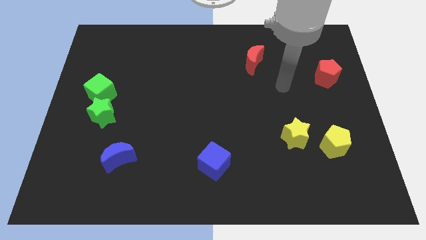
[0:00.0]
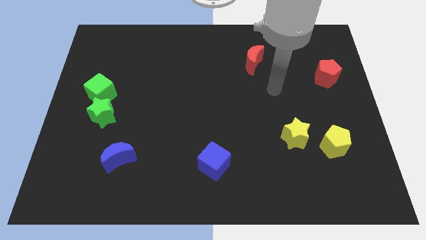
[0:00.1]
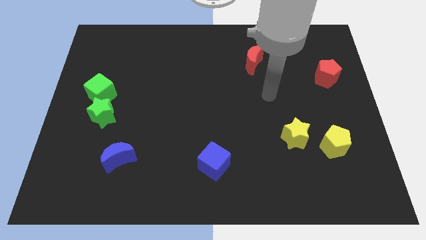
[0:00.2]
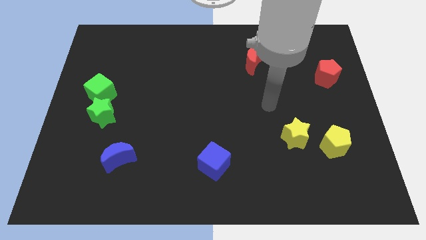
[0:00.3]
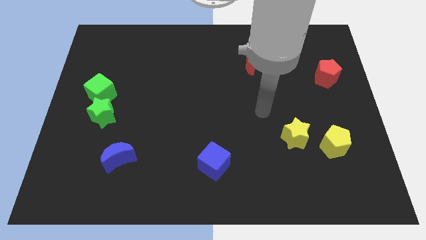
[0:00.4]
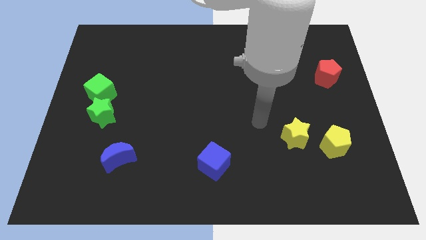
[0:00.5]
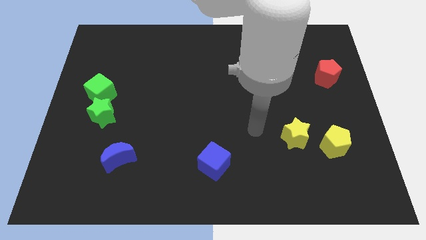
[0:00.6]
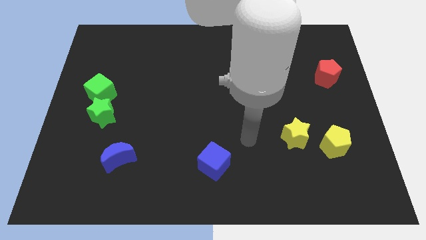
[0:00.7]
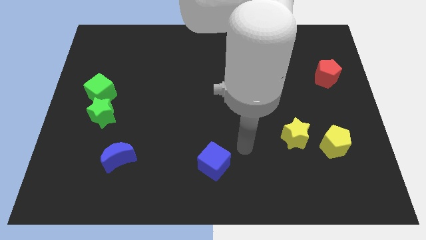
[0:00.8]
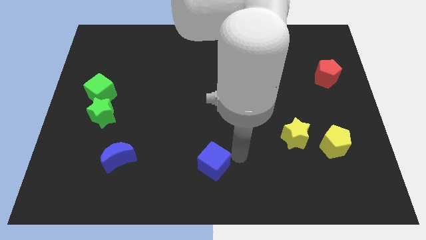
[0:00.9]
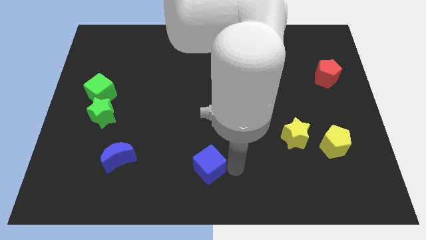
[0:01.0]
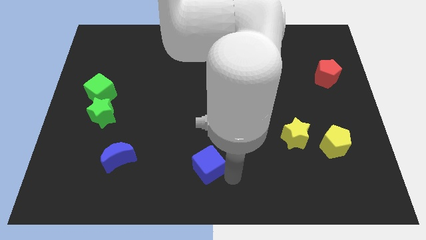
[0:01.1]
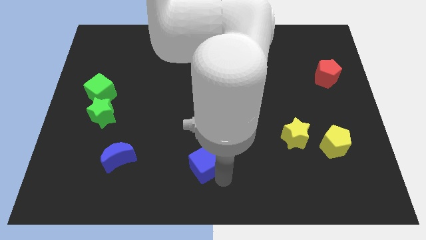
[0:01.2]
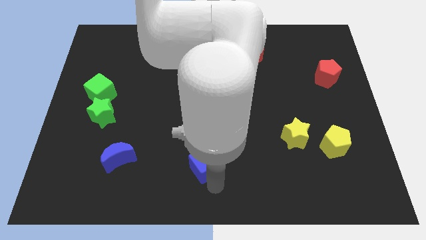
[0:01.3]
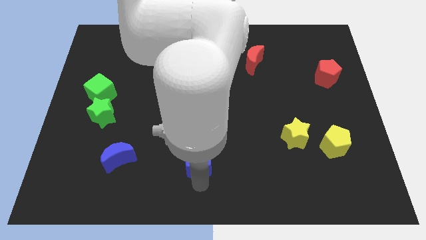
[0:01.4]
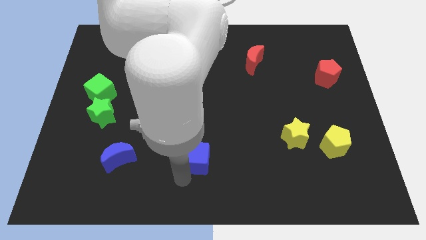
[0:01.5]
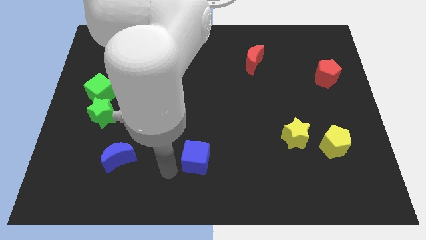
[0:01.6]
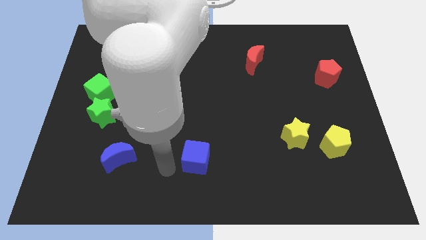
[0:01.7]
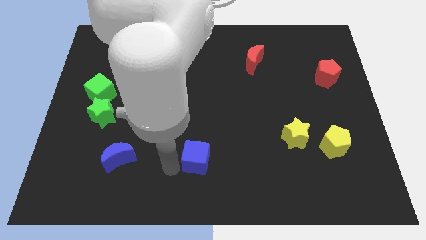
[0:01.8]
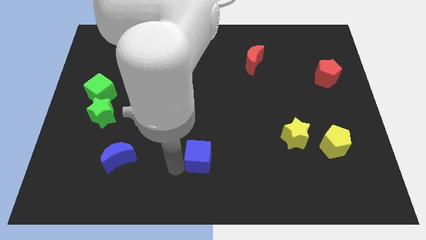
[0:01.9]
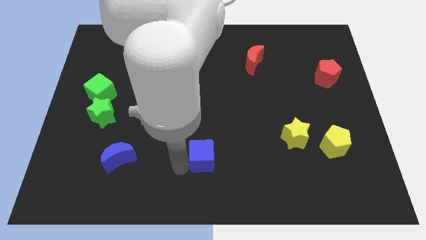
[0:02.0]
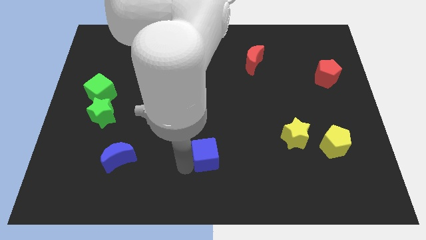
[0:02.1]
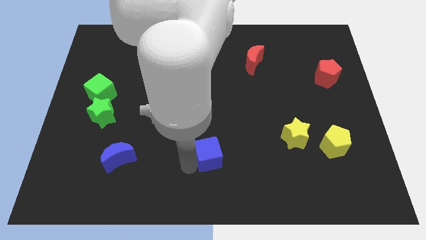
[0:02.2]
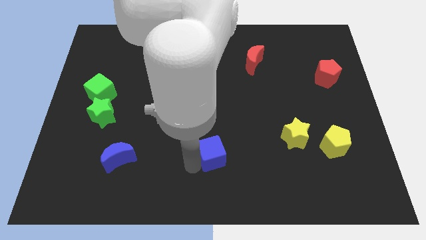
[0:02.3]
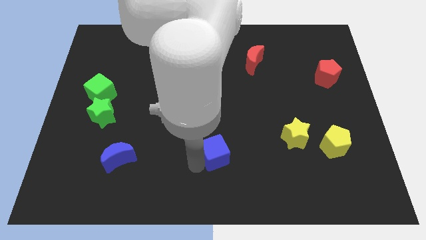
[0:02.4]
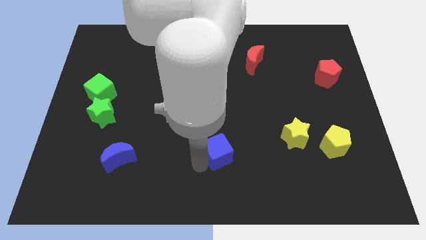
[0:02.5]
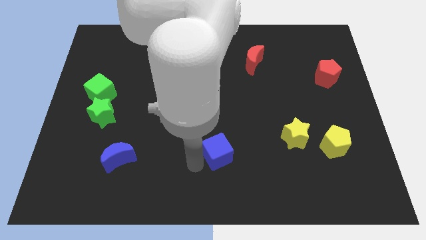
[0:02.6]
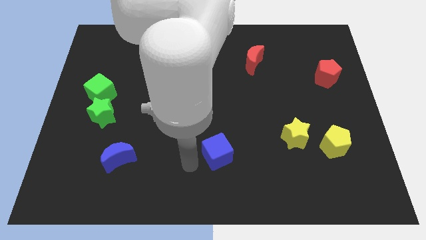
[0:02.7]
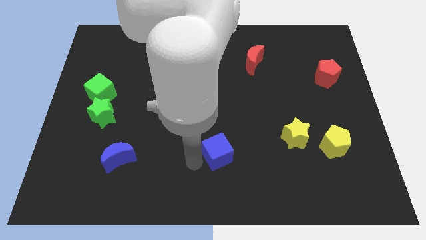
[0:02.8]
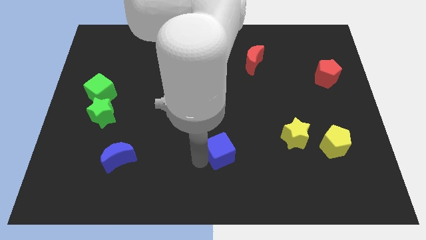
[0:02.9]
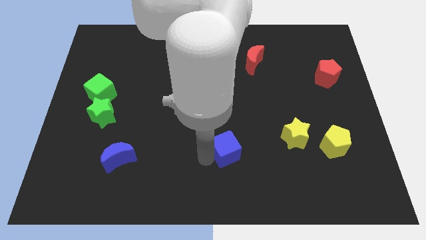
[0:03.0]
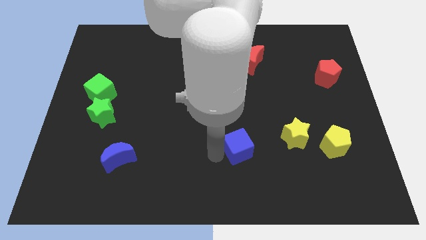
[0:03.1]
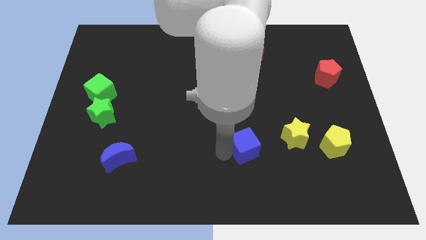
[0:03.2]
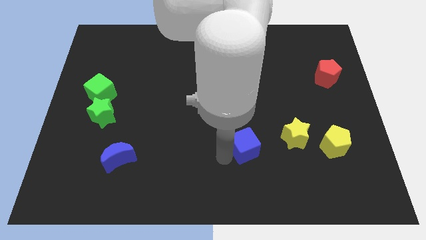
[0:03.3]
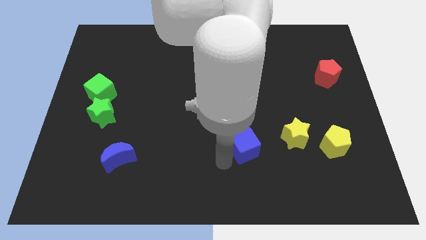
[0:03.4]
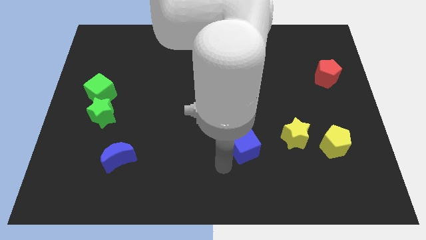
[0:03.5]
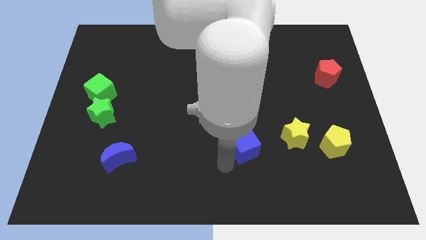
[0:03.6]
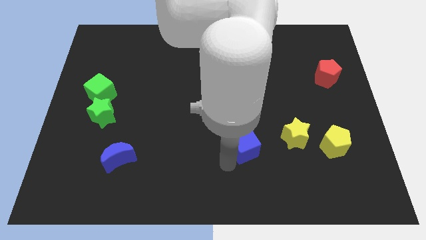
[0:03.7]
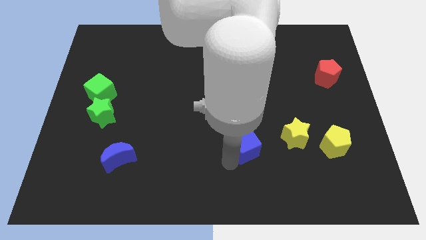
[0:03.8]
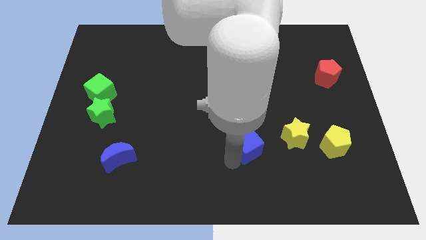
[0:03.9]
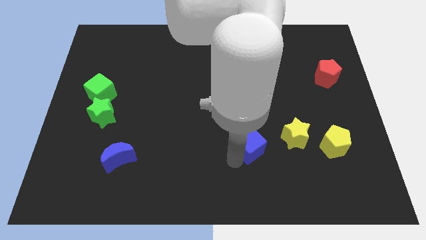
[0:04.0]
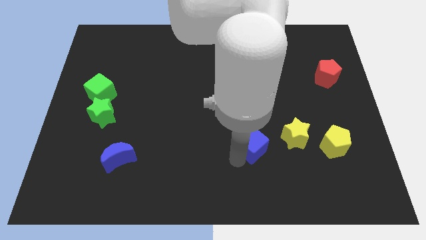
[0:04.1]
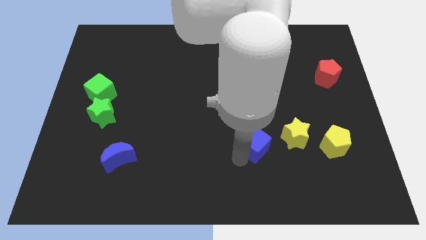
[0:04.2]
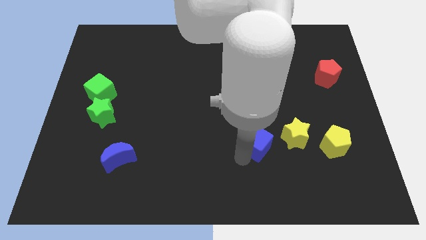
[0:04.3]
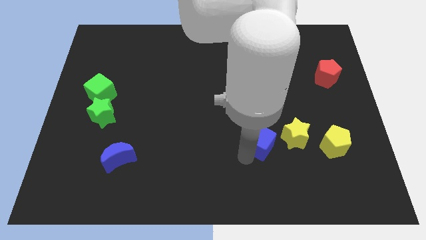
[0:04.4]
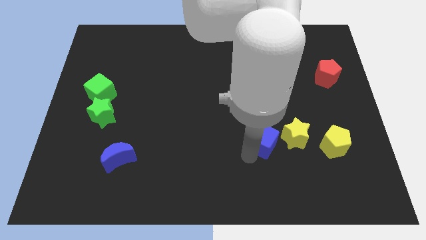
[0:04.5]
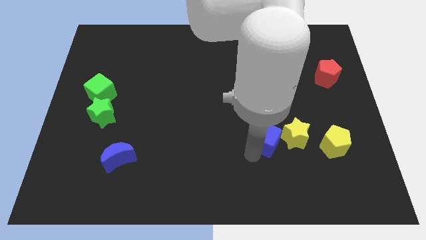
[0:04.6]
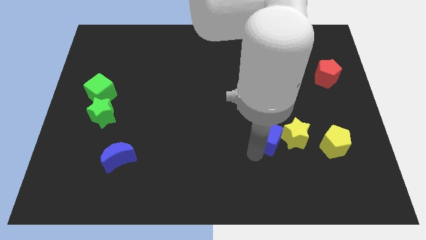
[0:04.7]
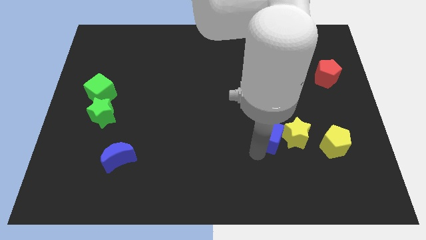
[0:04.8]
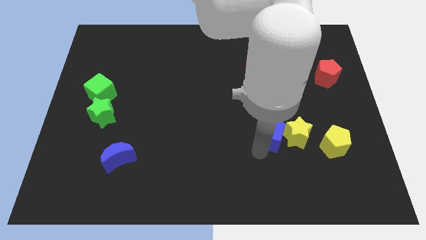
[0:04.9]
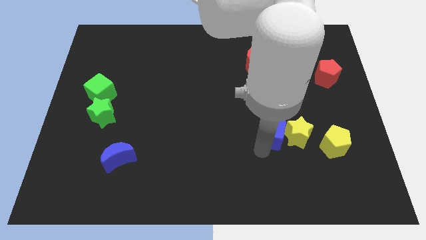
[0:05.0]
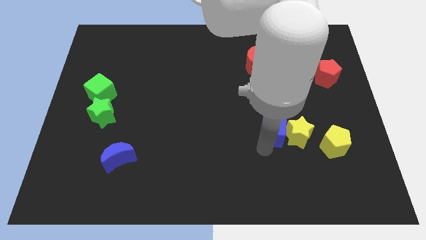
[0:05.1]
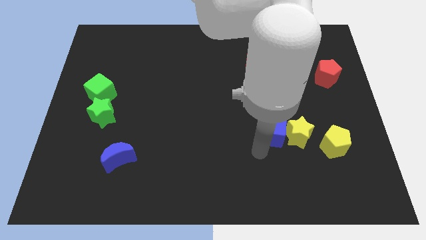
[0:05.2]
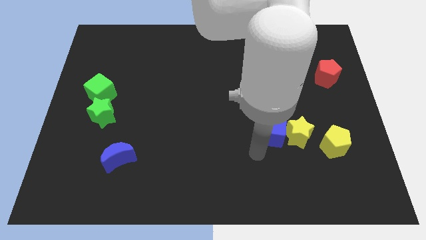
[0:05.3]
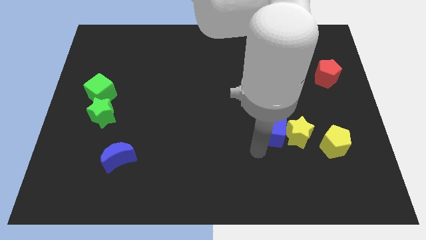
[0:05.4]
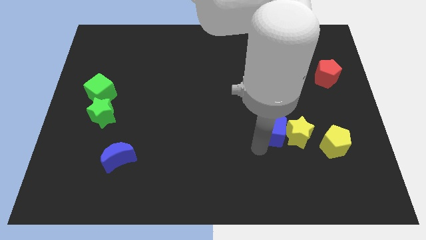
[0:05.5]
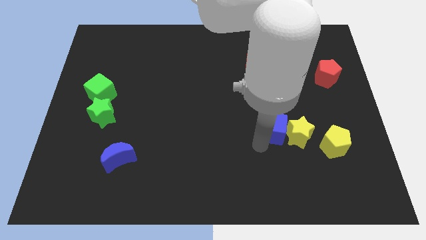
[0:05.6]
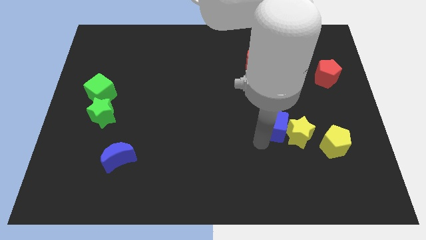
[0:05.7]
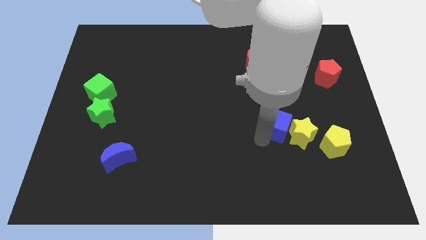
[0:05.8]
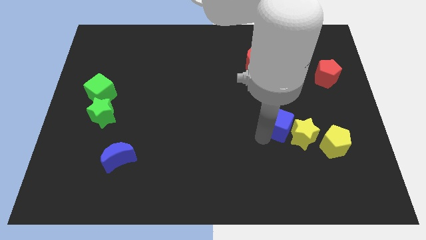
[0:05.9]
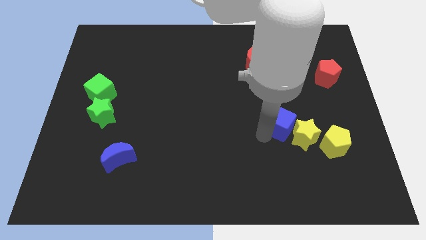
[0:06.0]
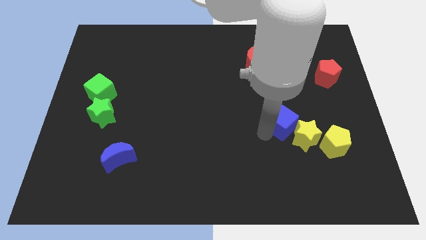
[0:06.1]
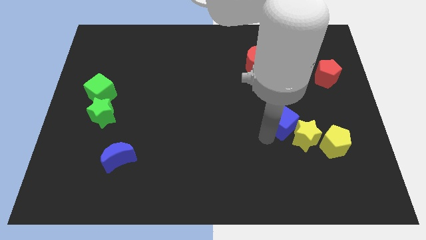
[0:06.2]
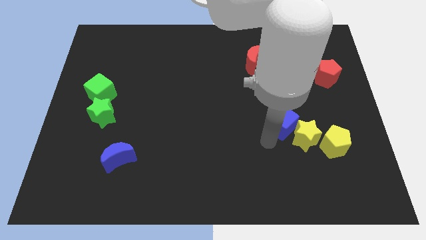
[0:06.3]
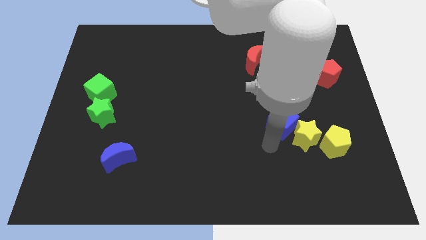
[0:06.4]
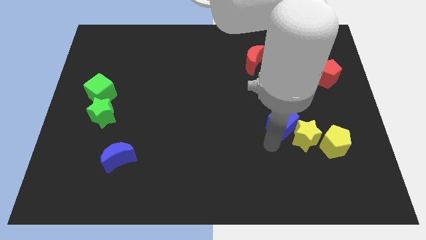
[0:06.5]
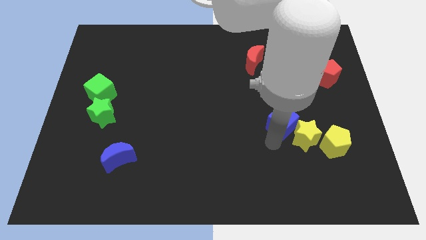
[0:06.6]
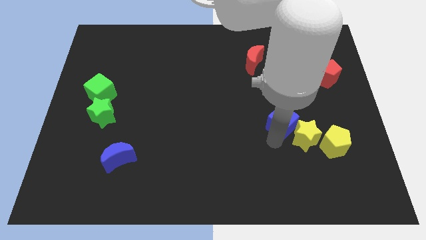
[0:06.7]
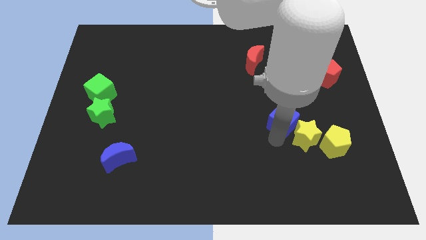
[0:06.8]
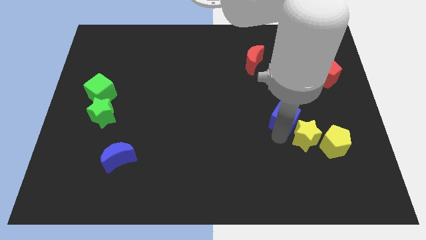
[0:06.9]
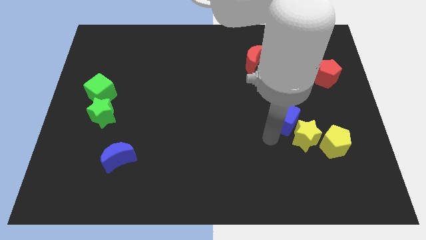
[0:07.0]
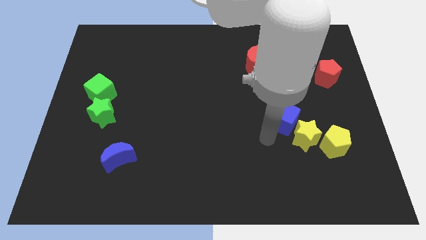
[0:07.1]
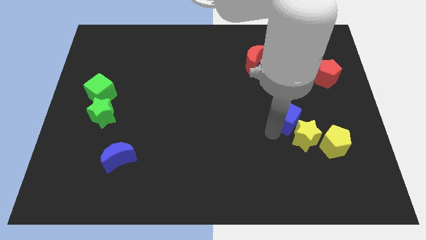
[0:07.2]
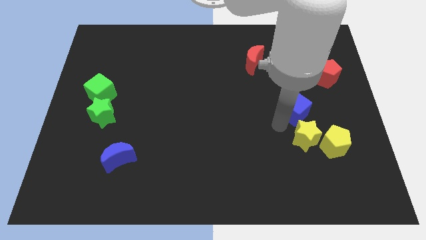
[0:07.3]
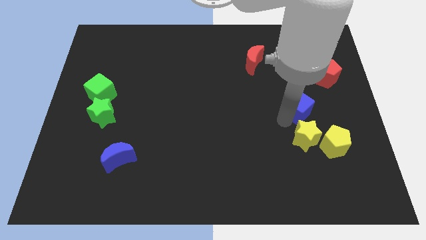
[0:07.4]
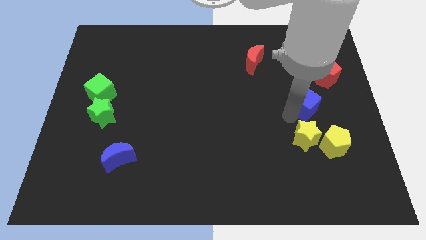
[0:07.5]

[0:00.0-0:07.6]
push the blue cube to the bottom left side of the red pentagon
